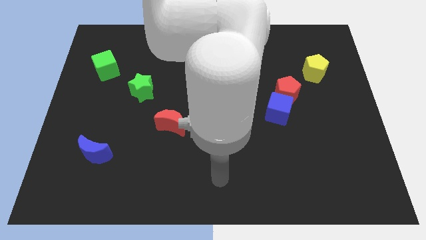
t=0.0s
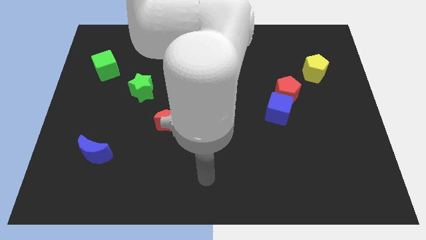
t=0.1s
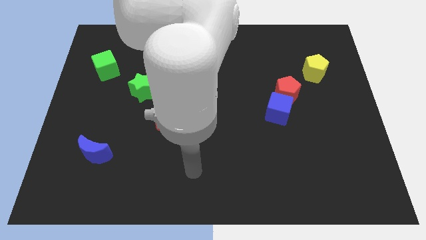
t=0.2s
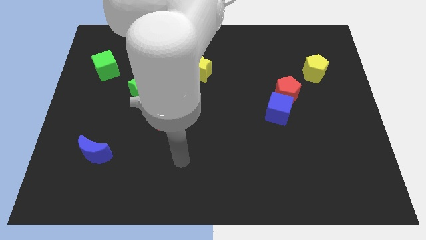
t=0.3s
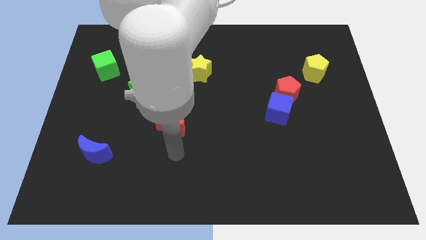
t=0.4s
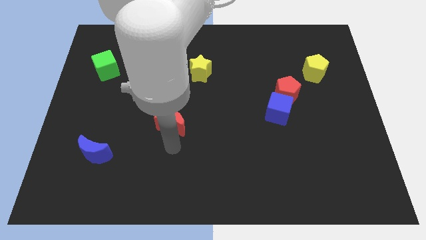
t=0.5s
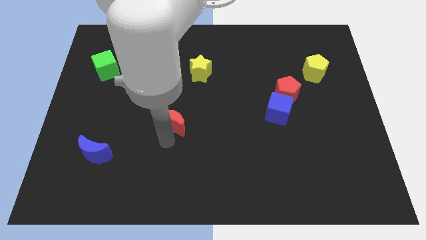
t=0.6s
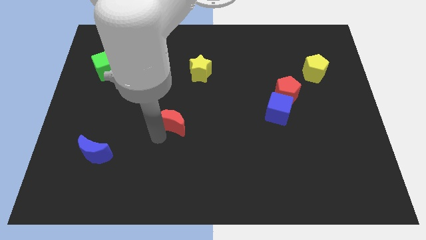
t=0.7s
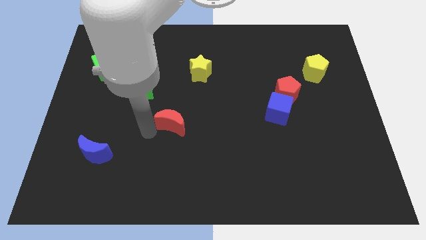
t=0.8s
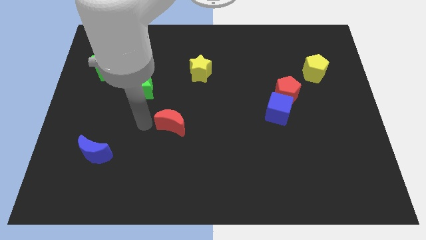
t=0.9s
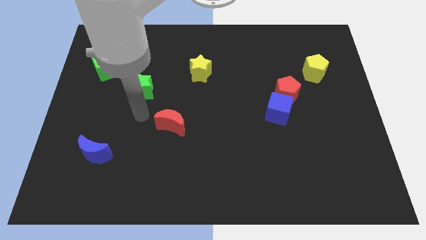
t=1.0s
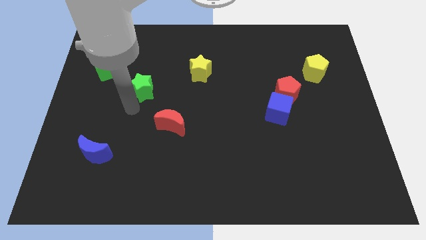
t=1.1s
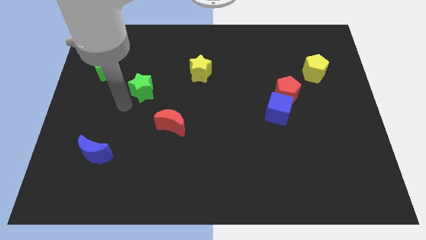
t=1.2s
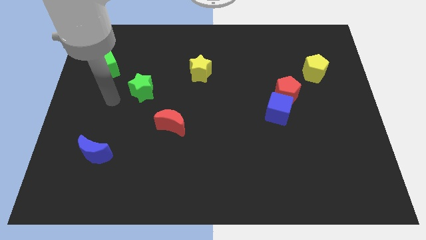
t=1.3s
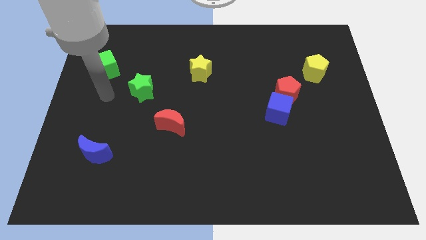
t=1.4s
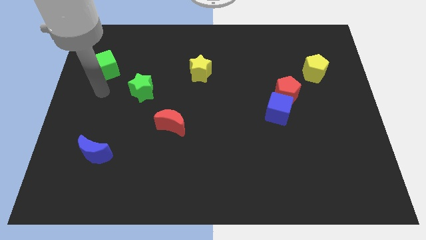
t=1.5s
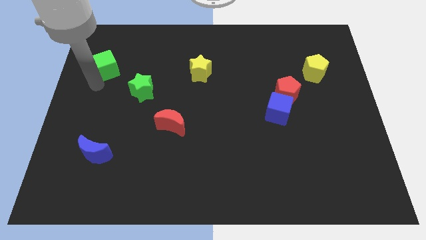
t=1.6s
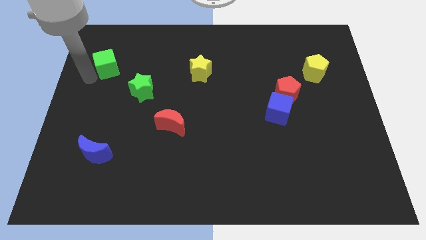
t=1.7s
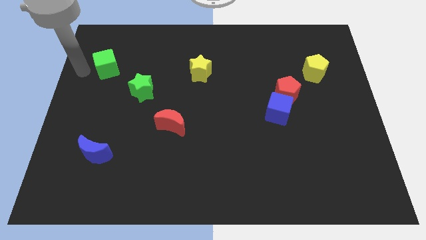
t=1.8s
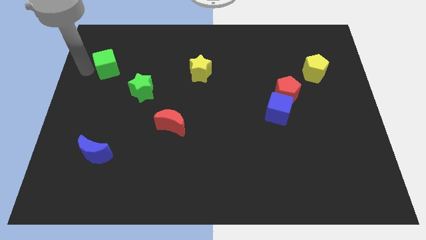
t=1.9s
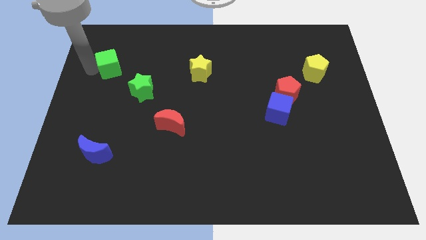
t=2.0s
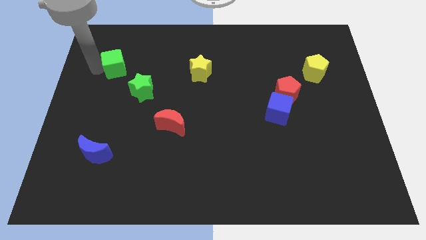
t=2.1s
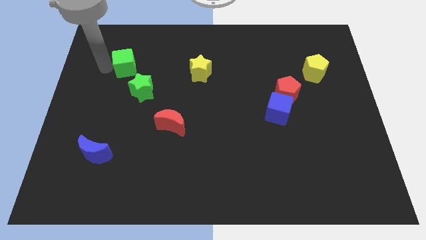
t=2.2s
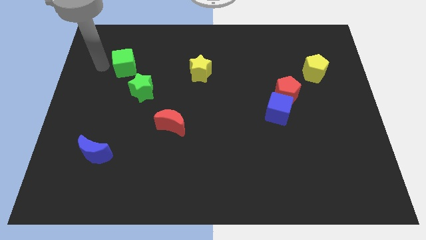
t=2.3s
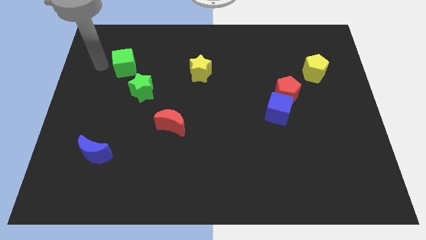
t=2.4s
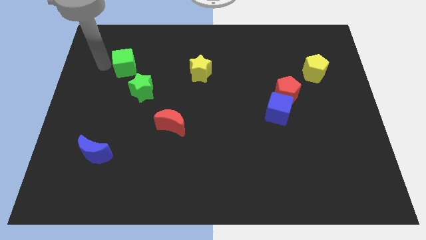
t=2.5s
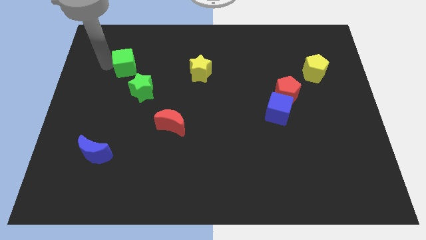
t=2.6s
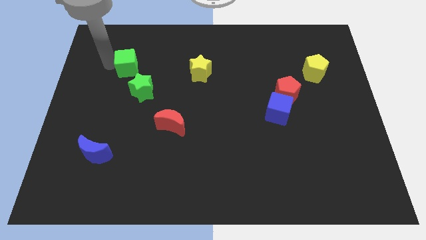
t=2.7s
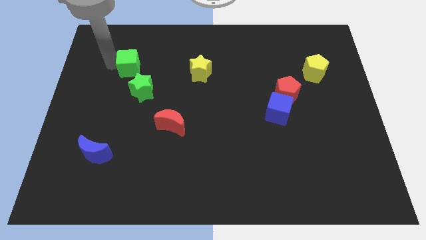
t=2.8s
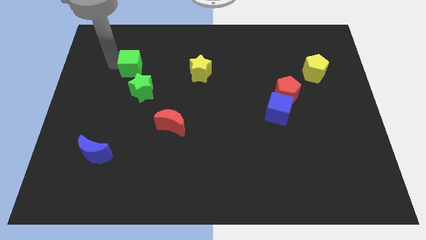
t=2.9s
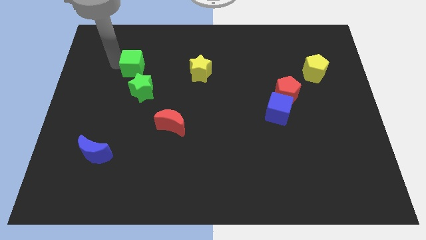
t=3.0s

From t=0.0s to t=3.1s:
push the green cube slightly to the right

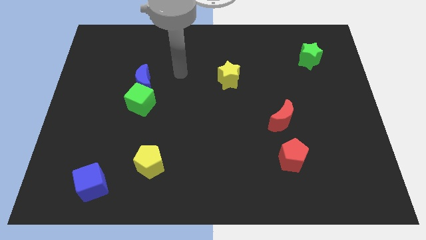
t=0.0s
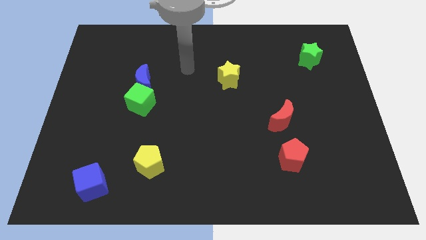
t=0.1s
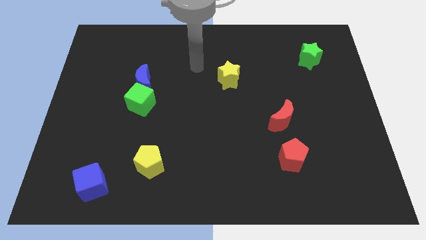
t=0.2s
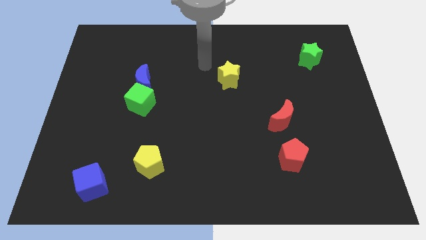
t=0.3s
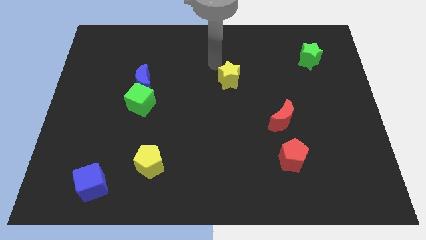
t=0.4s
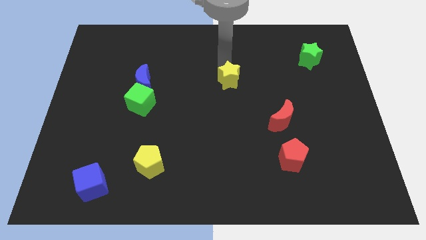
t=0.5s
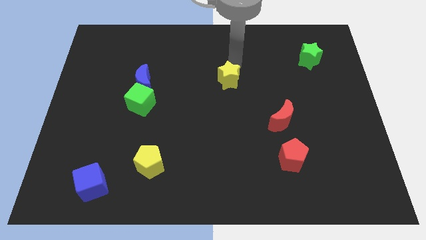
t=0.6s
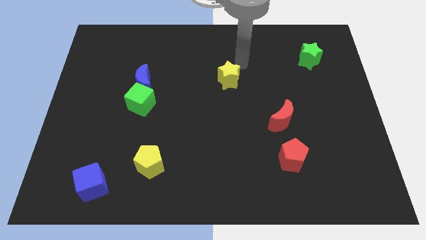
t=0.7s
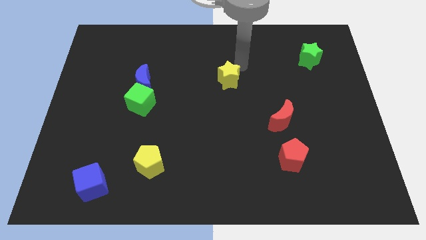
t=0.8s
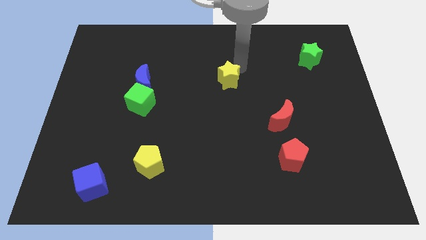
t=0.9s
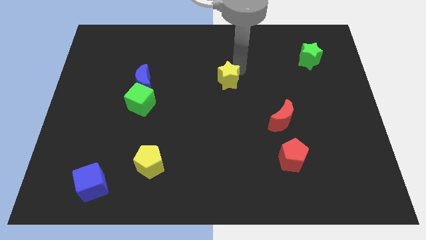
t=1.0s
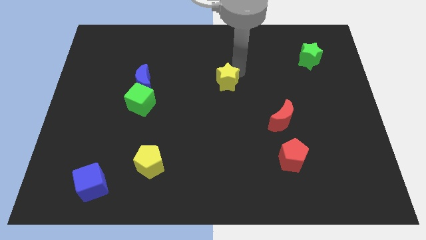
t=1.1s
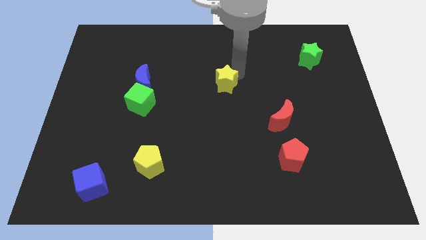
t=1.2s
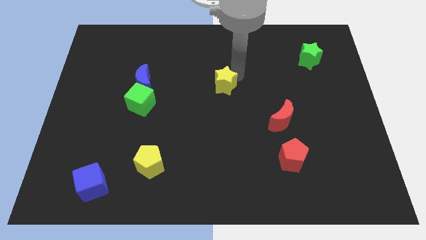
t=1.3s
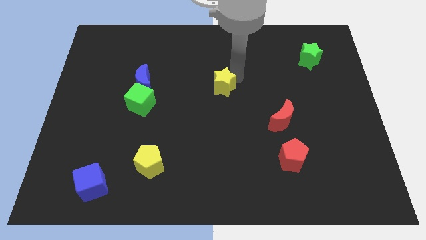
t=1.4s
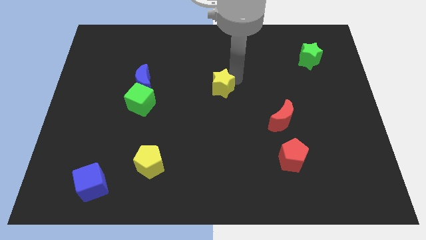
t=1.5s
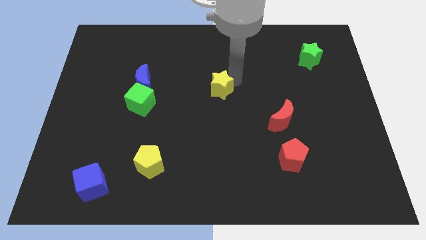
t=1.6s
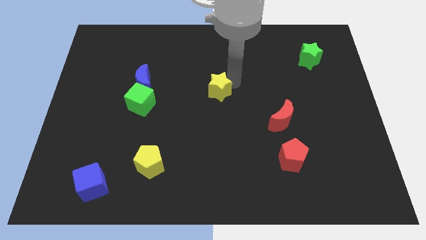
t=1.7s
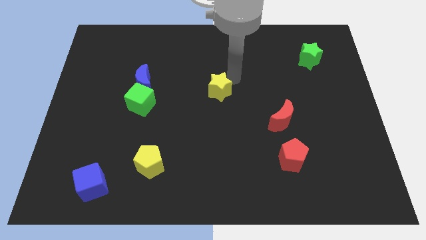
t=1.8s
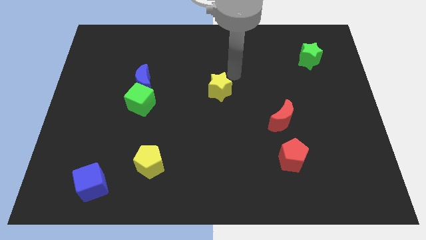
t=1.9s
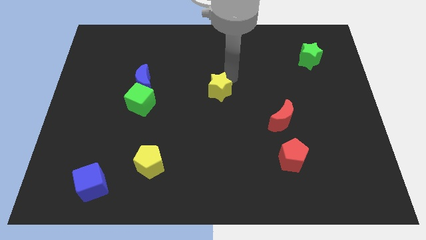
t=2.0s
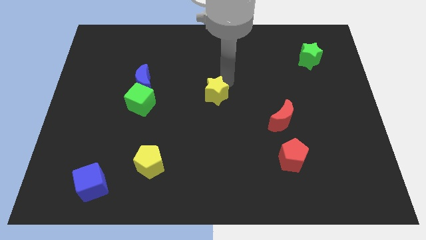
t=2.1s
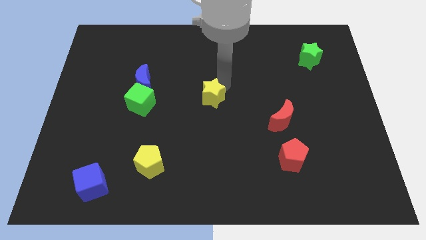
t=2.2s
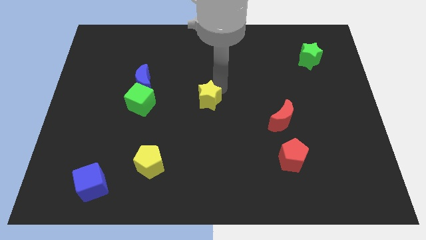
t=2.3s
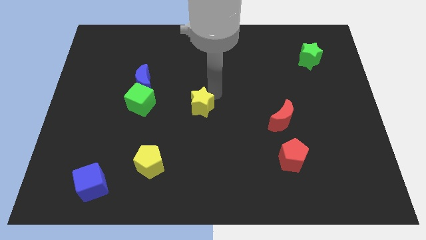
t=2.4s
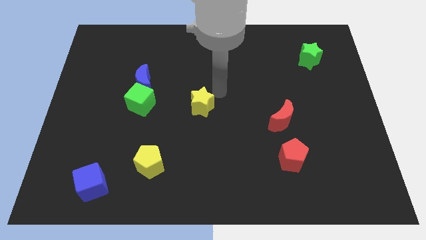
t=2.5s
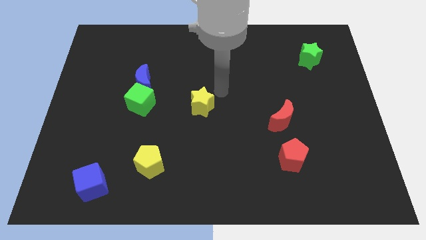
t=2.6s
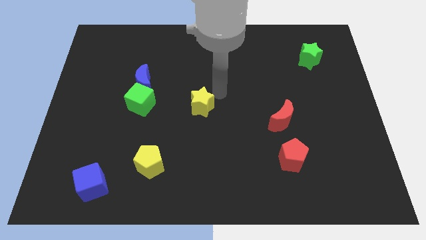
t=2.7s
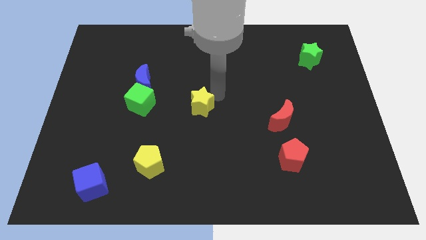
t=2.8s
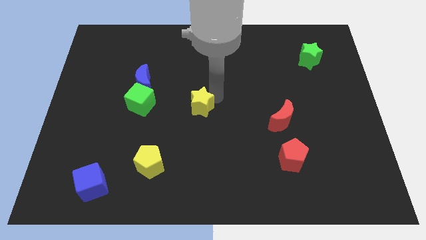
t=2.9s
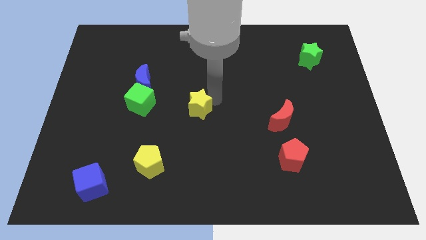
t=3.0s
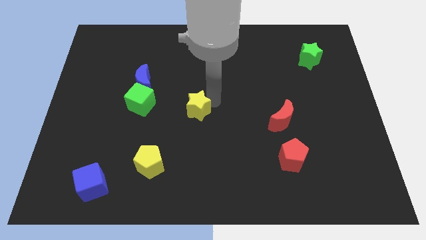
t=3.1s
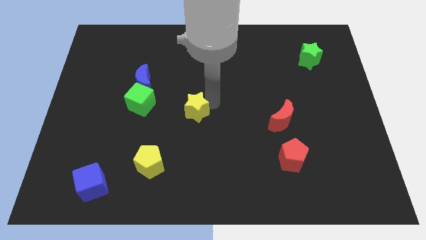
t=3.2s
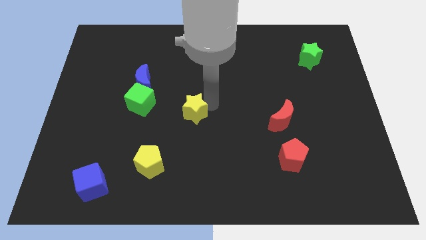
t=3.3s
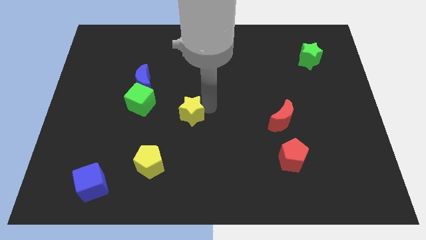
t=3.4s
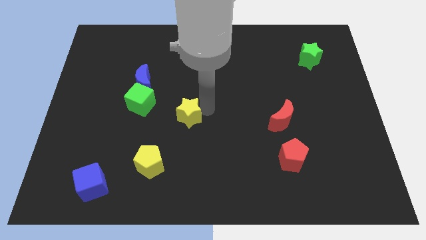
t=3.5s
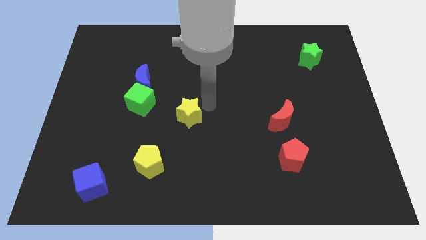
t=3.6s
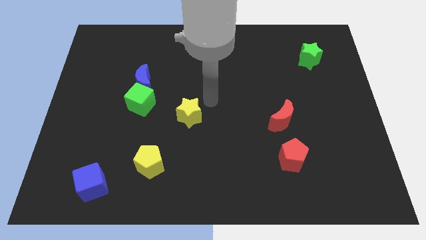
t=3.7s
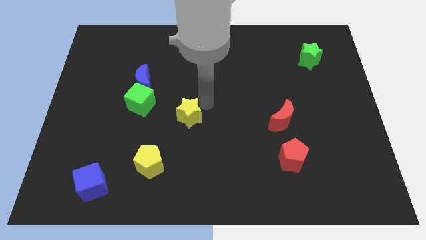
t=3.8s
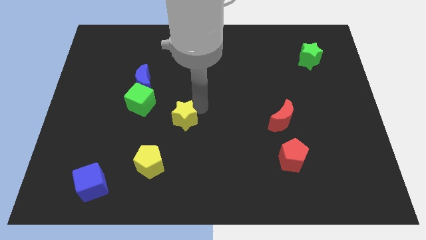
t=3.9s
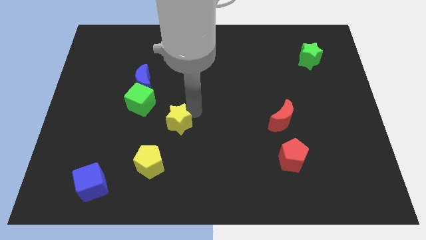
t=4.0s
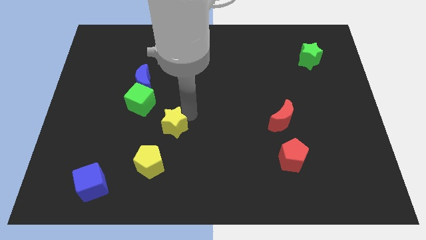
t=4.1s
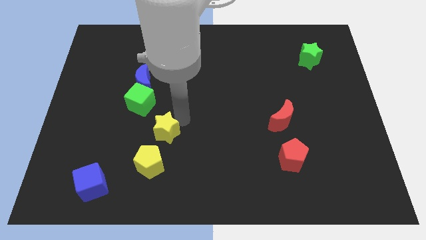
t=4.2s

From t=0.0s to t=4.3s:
push the yellow star down and to the left

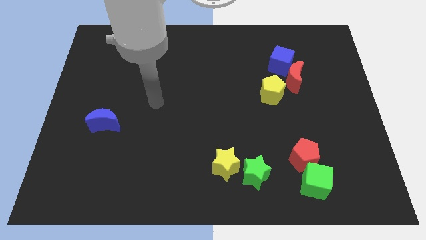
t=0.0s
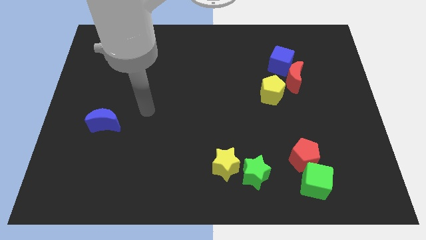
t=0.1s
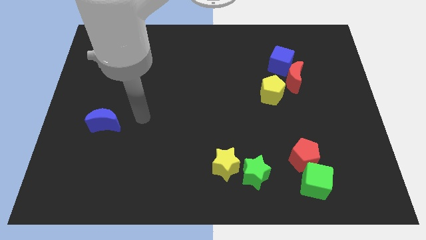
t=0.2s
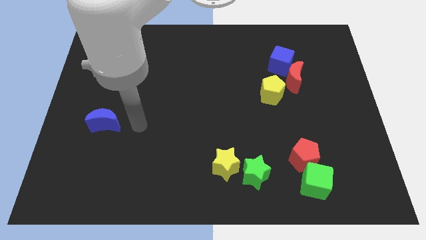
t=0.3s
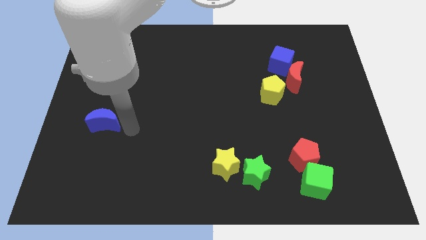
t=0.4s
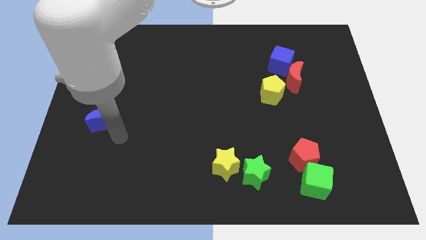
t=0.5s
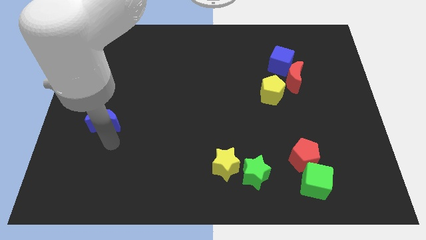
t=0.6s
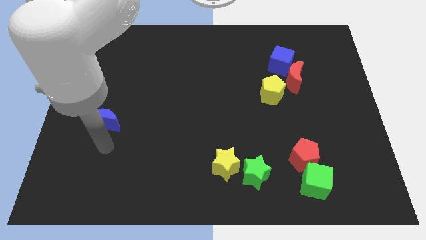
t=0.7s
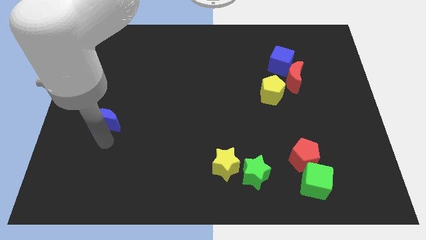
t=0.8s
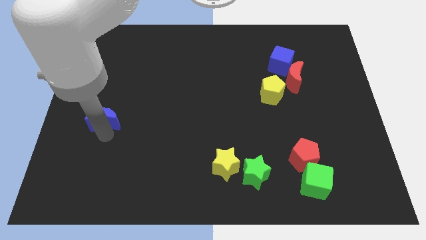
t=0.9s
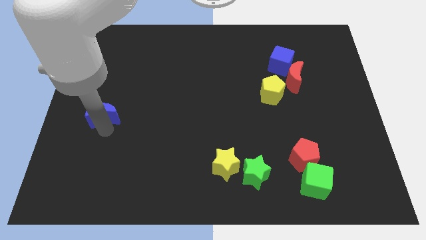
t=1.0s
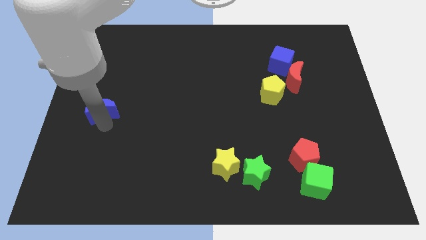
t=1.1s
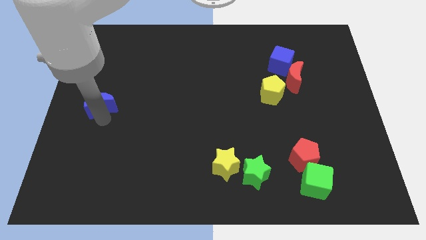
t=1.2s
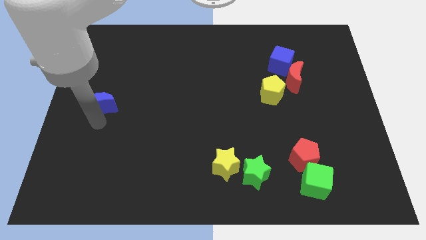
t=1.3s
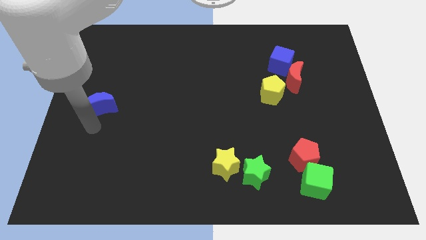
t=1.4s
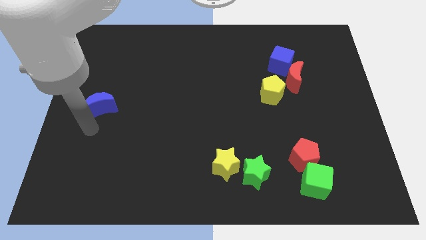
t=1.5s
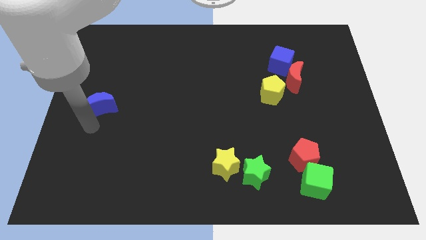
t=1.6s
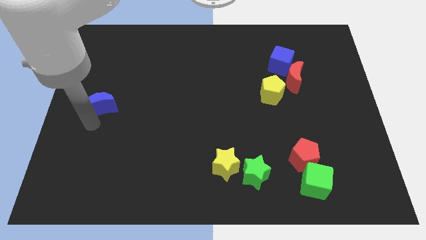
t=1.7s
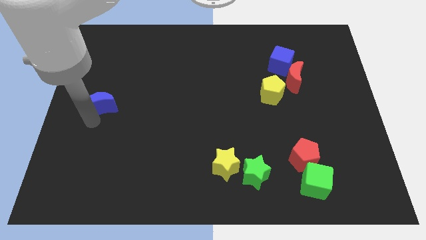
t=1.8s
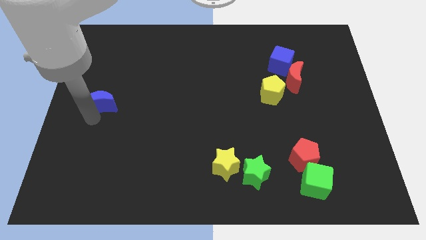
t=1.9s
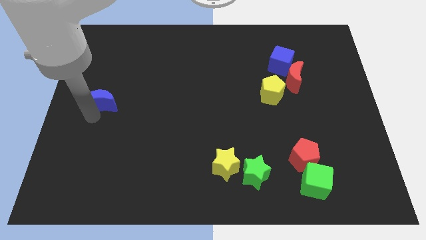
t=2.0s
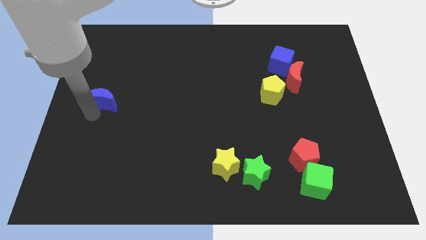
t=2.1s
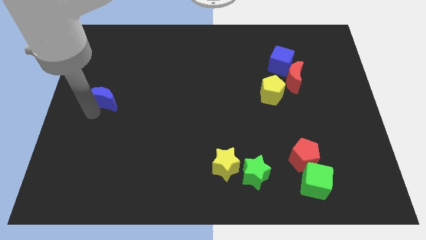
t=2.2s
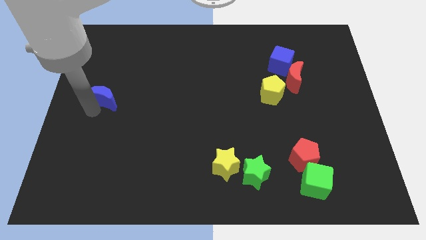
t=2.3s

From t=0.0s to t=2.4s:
slightly push the blue moon up
